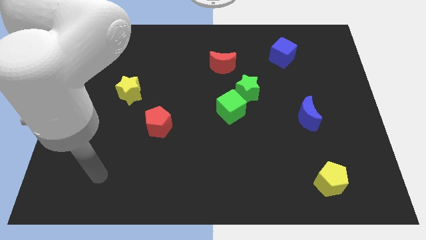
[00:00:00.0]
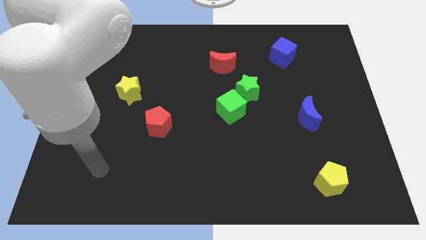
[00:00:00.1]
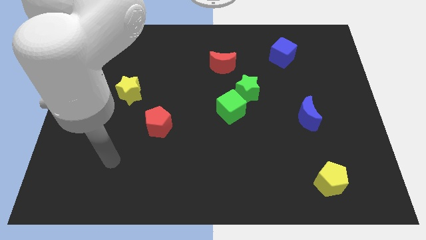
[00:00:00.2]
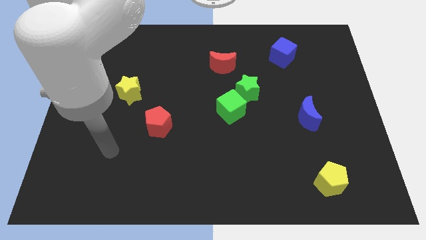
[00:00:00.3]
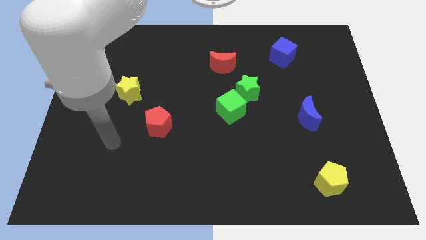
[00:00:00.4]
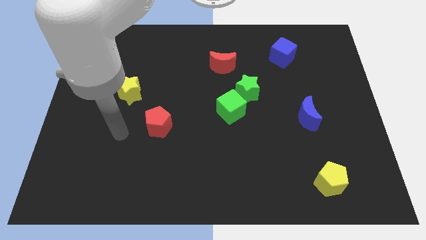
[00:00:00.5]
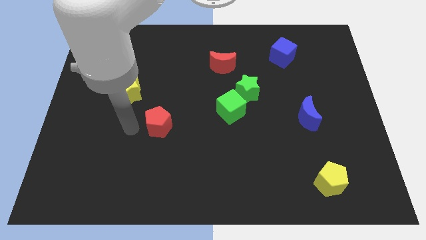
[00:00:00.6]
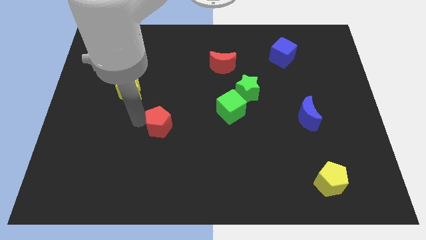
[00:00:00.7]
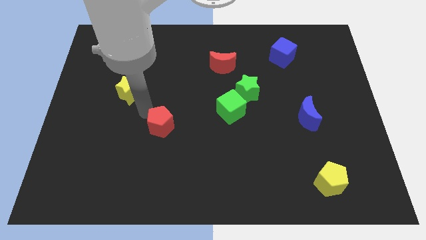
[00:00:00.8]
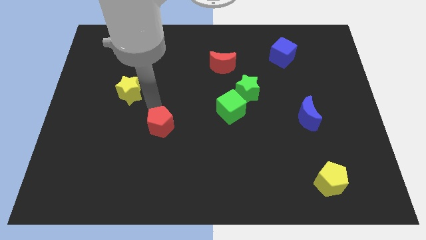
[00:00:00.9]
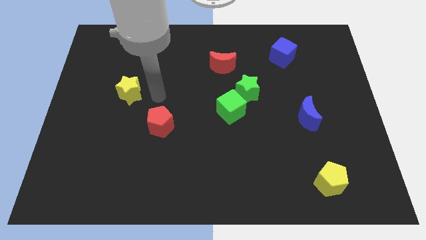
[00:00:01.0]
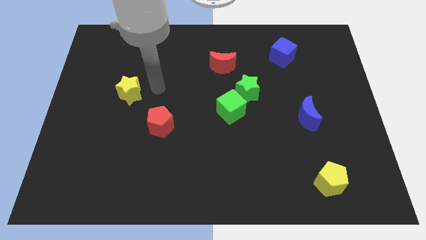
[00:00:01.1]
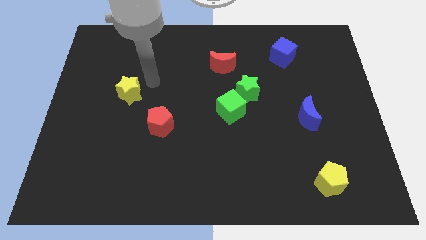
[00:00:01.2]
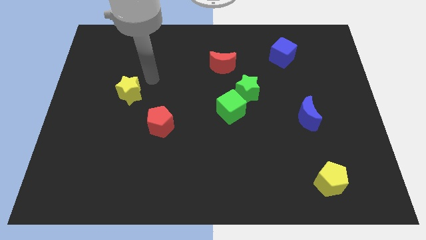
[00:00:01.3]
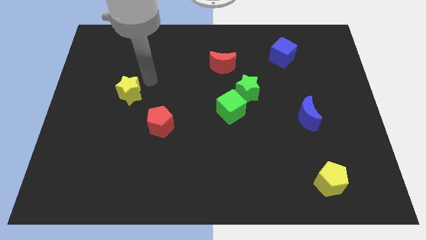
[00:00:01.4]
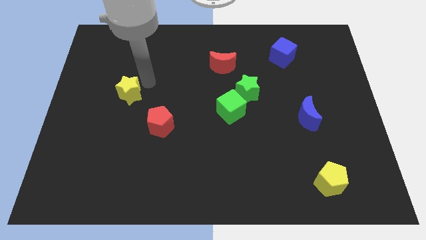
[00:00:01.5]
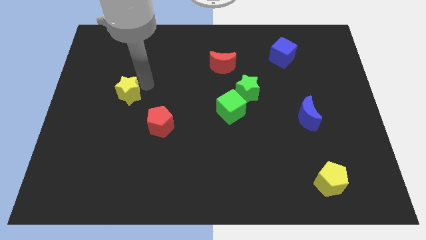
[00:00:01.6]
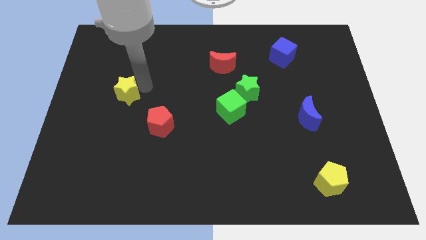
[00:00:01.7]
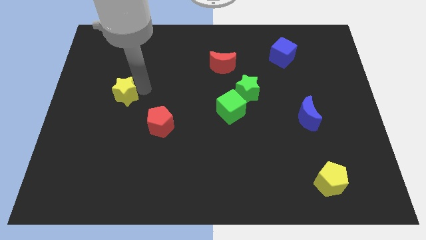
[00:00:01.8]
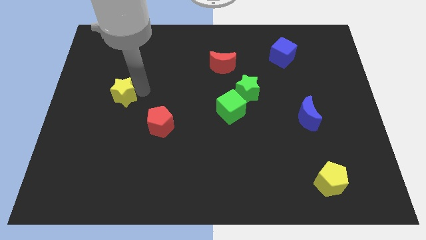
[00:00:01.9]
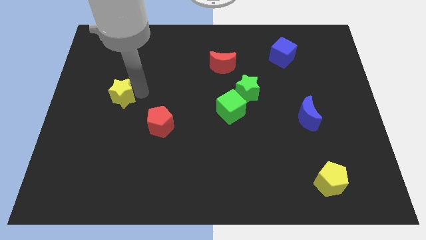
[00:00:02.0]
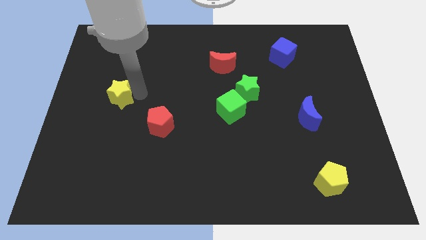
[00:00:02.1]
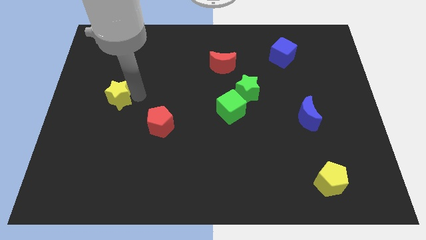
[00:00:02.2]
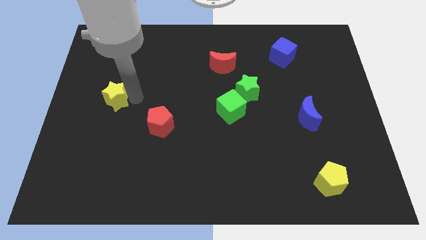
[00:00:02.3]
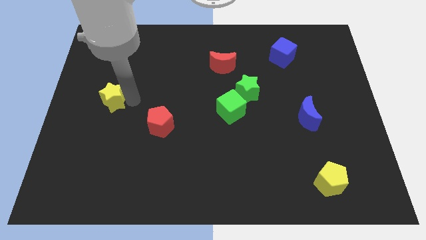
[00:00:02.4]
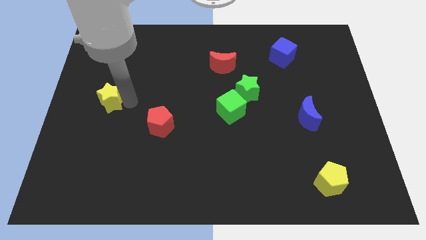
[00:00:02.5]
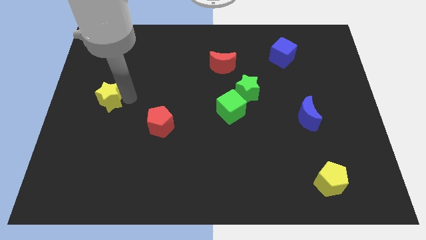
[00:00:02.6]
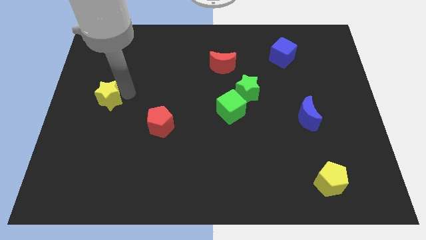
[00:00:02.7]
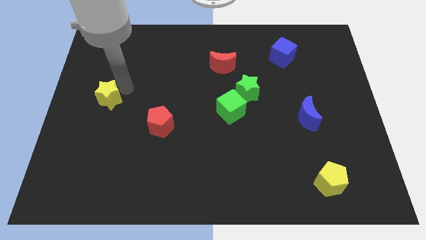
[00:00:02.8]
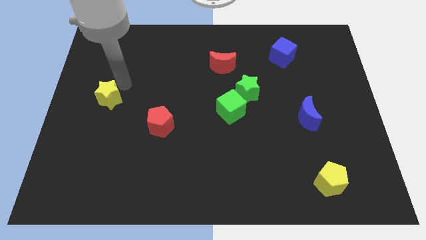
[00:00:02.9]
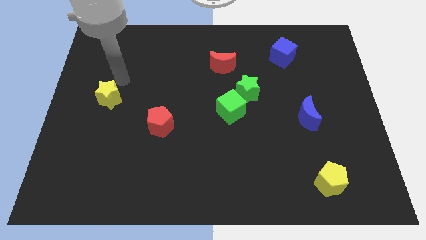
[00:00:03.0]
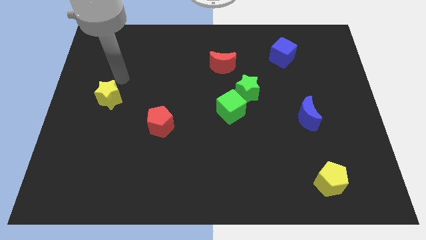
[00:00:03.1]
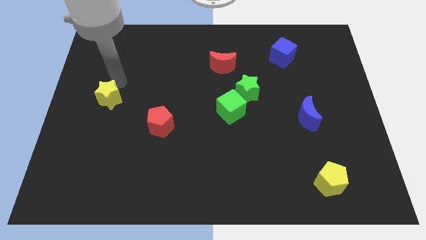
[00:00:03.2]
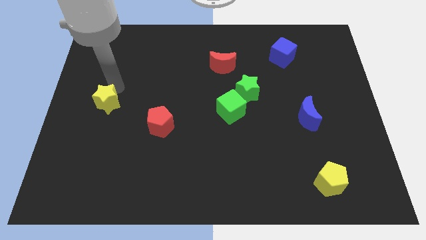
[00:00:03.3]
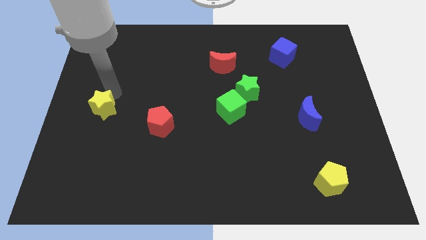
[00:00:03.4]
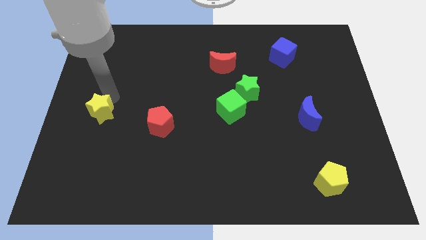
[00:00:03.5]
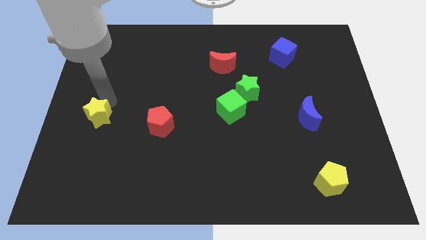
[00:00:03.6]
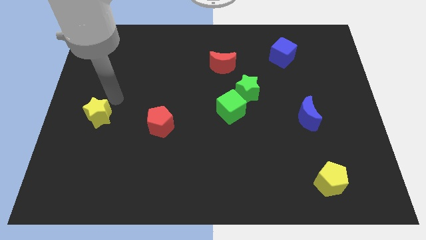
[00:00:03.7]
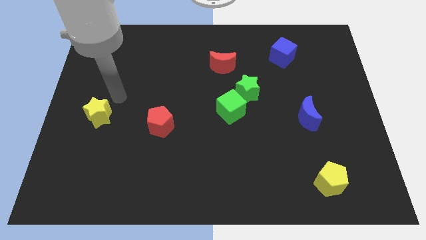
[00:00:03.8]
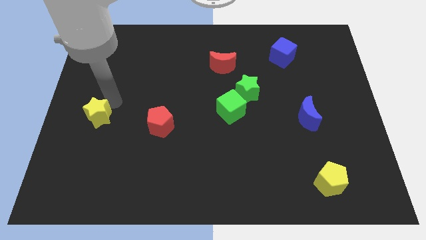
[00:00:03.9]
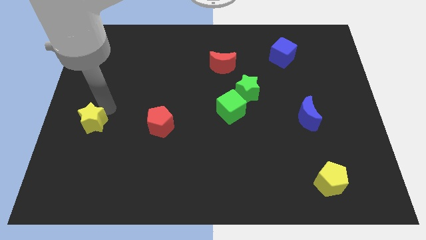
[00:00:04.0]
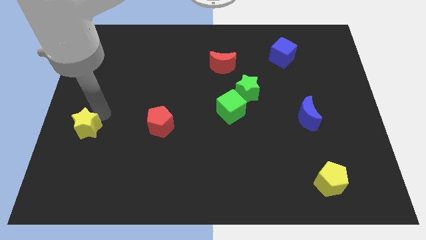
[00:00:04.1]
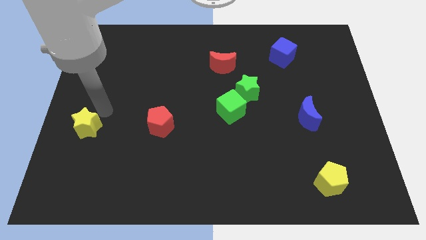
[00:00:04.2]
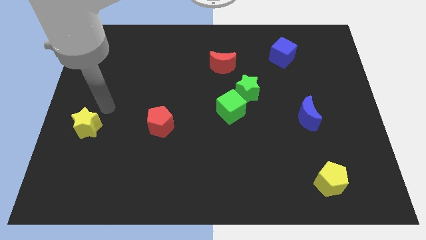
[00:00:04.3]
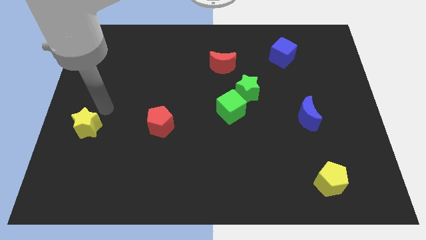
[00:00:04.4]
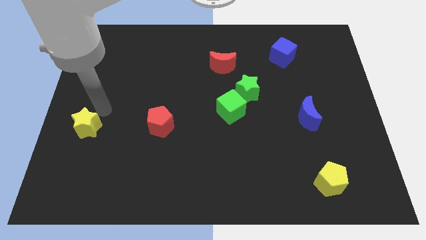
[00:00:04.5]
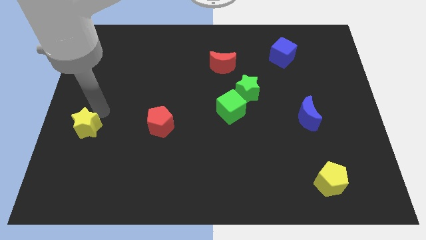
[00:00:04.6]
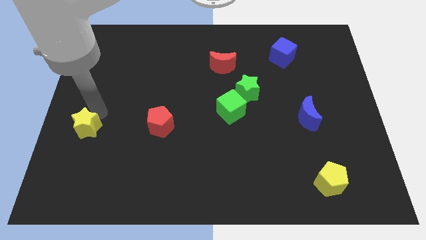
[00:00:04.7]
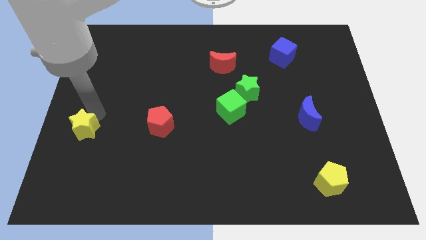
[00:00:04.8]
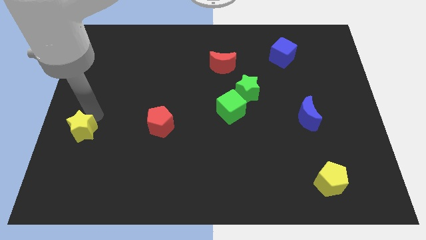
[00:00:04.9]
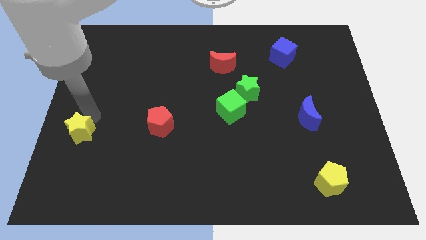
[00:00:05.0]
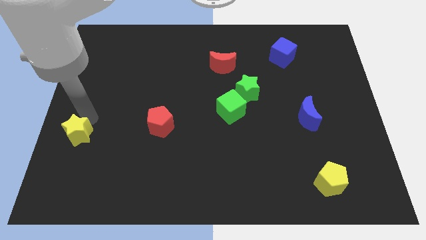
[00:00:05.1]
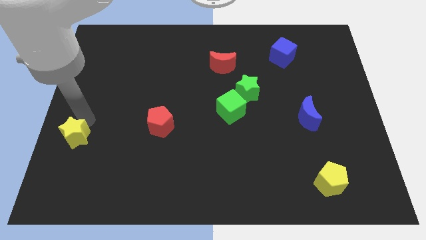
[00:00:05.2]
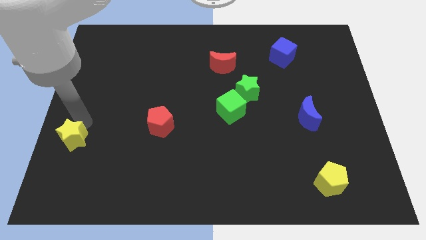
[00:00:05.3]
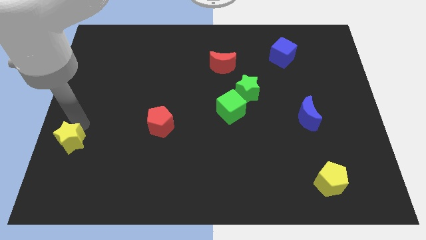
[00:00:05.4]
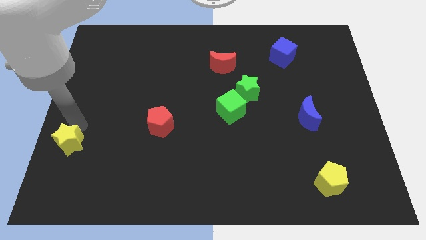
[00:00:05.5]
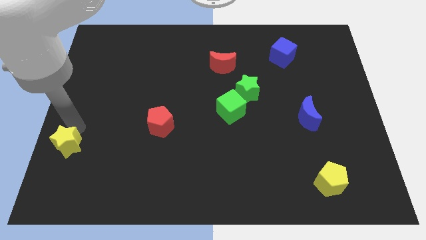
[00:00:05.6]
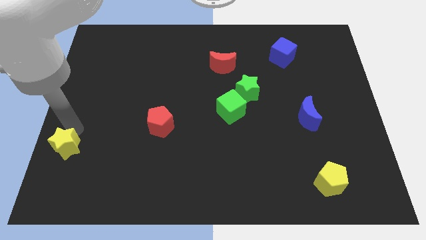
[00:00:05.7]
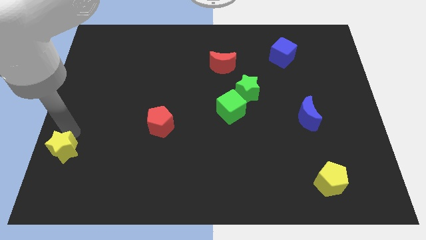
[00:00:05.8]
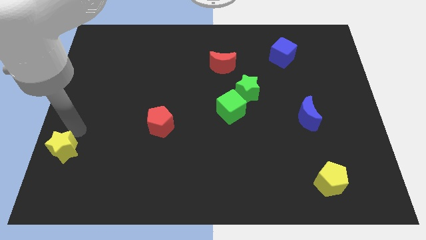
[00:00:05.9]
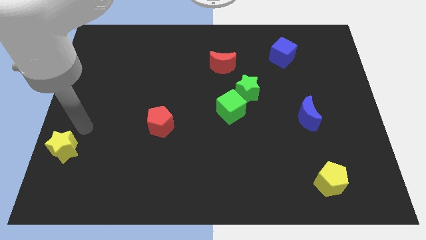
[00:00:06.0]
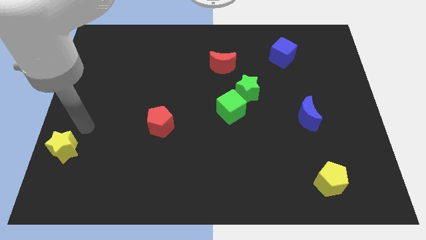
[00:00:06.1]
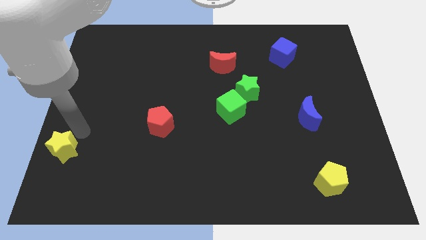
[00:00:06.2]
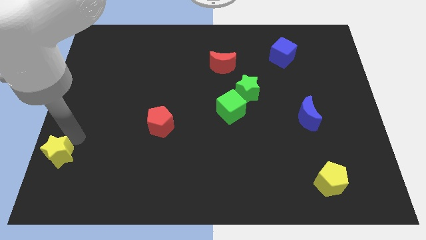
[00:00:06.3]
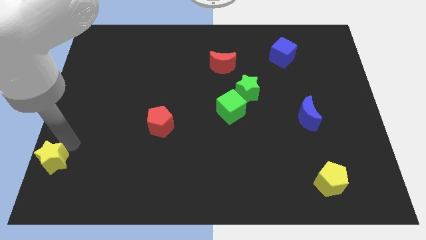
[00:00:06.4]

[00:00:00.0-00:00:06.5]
move the yellow star to the lower left corner
